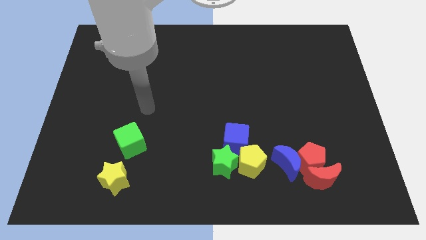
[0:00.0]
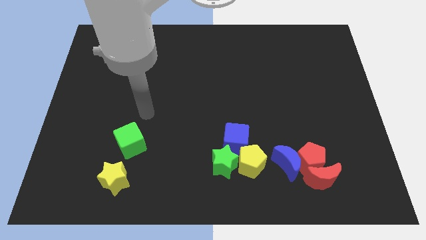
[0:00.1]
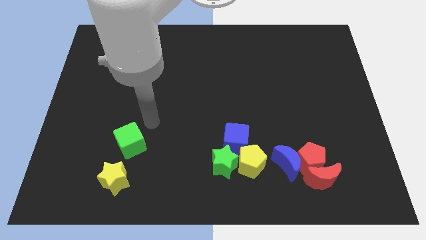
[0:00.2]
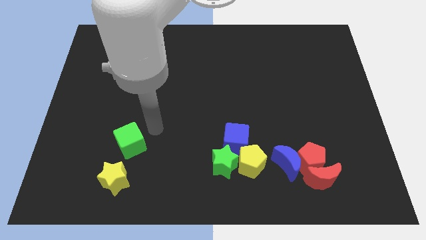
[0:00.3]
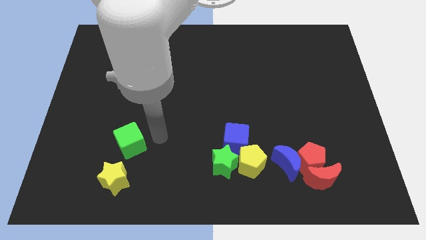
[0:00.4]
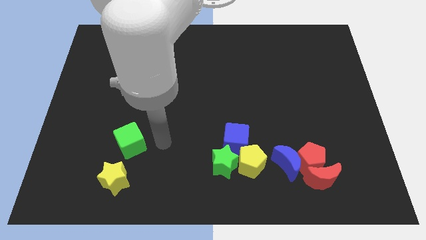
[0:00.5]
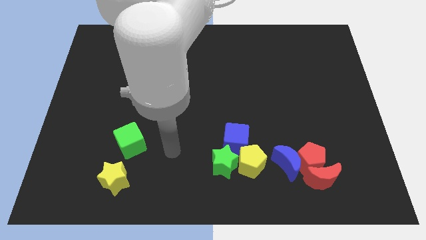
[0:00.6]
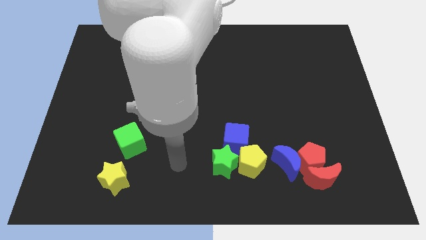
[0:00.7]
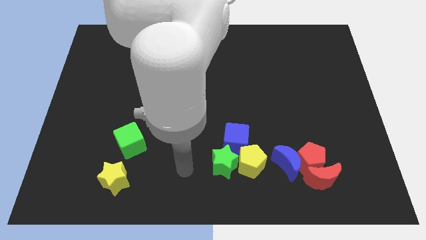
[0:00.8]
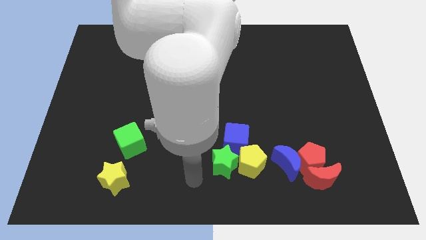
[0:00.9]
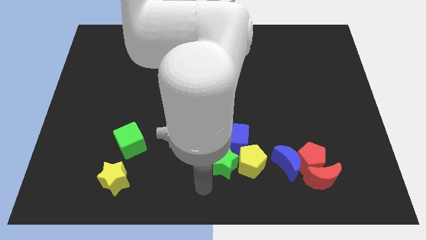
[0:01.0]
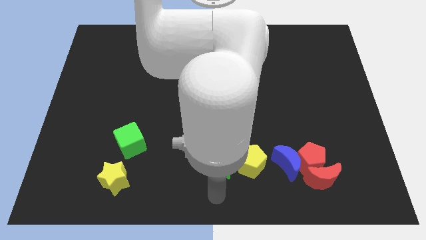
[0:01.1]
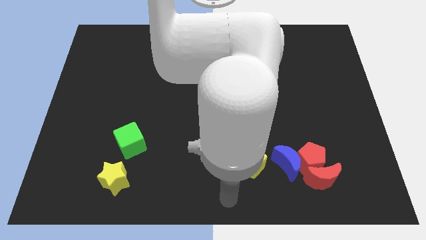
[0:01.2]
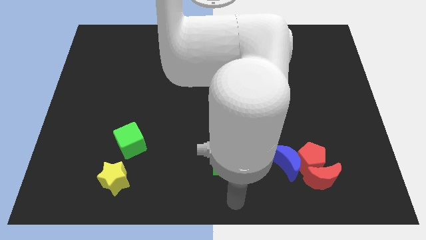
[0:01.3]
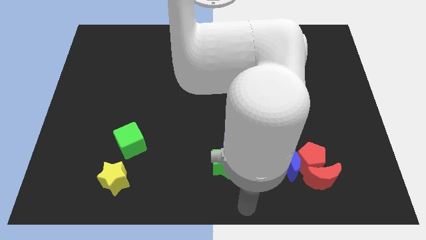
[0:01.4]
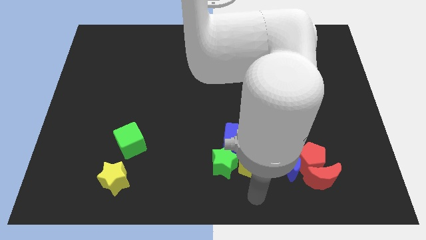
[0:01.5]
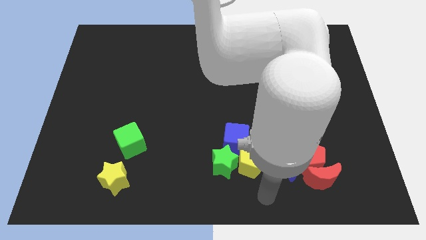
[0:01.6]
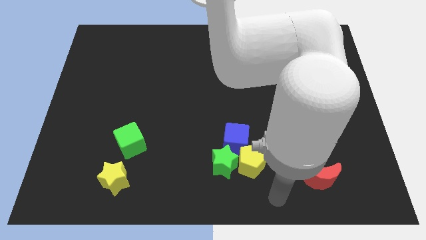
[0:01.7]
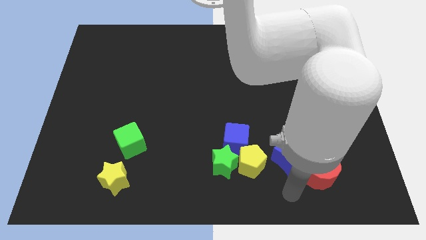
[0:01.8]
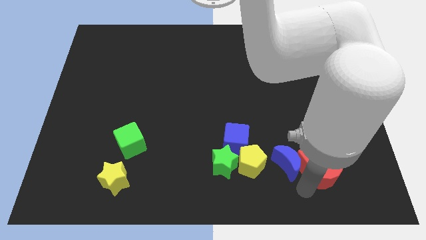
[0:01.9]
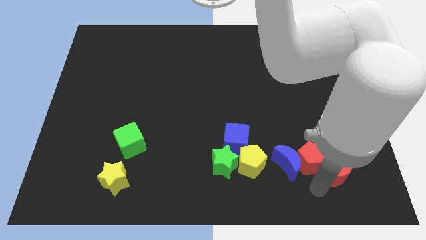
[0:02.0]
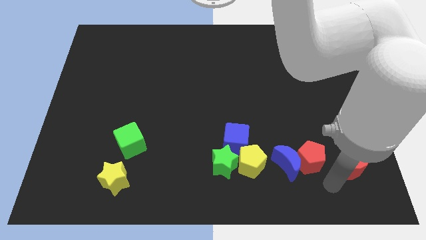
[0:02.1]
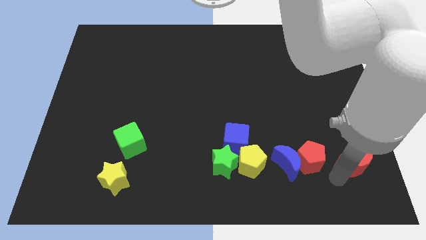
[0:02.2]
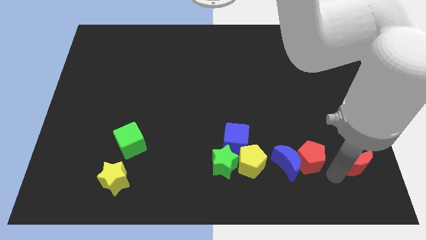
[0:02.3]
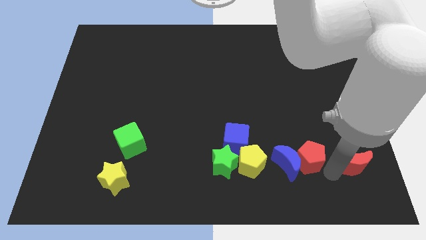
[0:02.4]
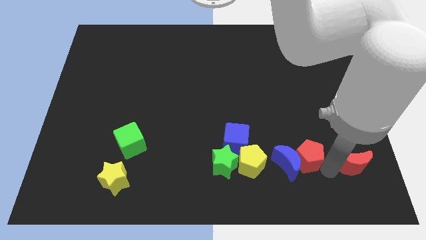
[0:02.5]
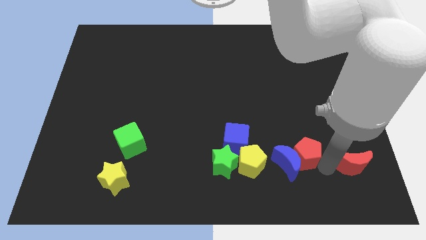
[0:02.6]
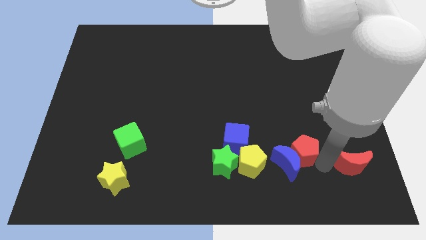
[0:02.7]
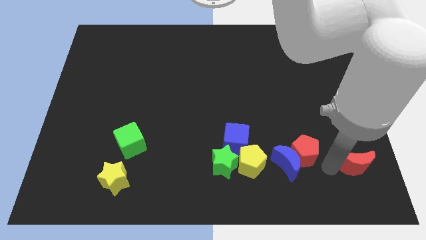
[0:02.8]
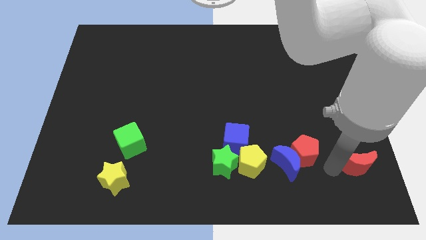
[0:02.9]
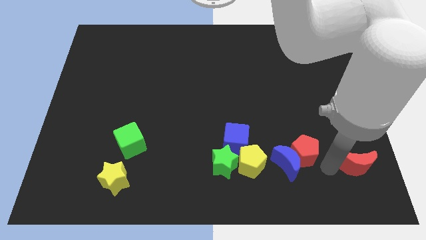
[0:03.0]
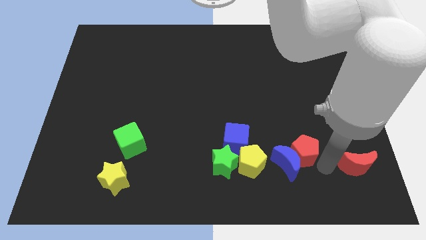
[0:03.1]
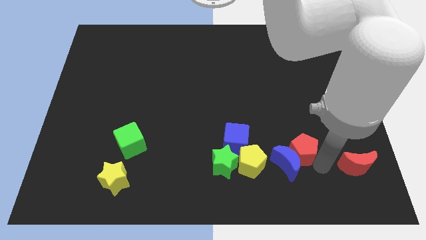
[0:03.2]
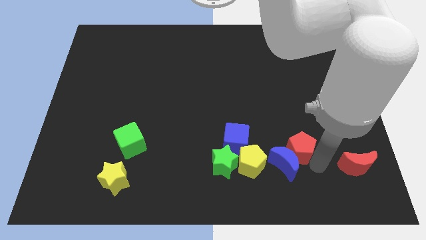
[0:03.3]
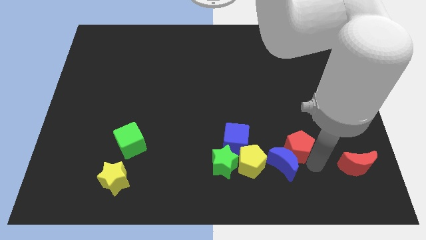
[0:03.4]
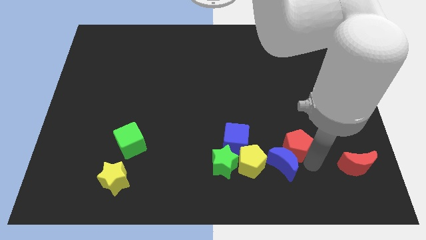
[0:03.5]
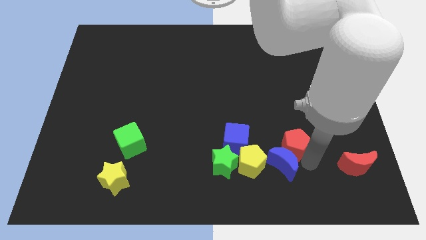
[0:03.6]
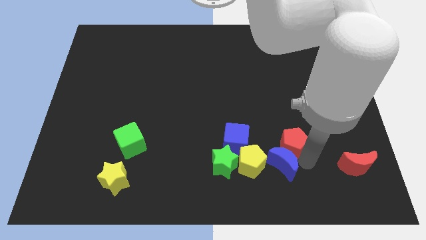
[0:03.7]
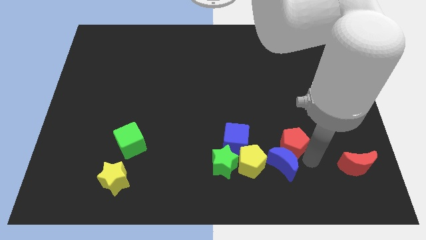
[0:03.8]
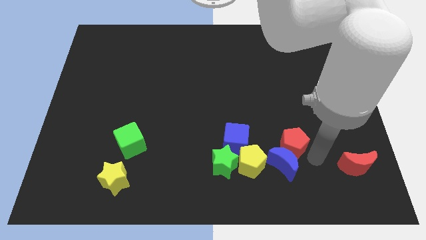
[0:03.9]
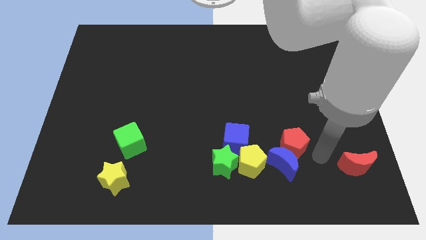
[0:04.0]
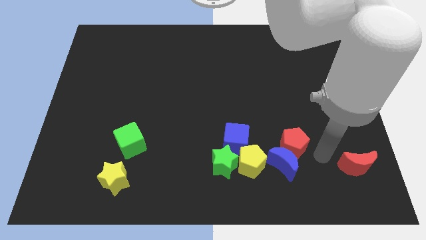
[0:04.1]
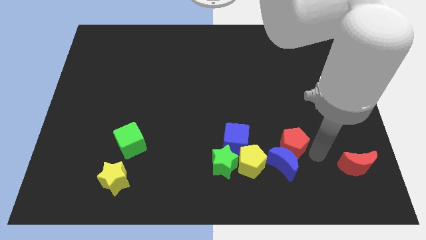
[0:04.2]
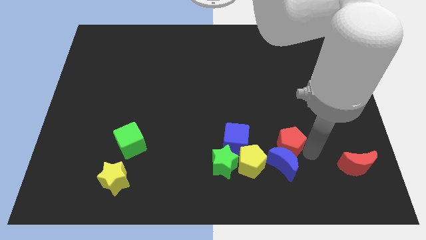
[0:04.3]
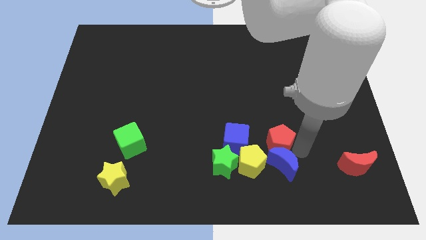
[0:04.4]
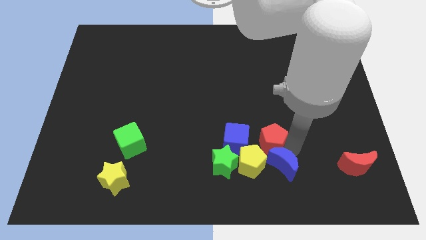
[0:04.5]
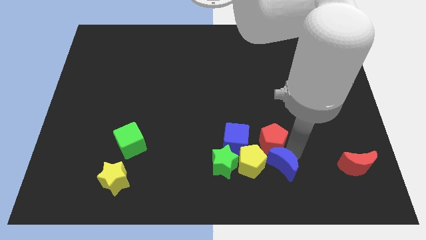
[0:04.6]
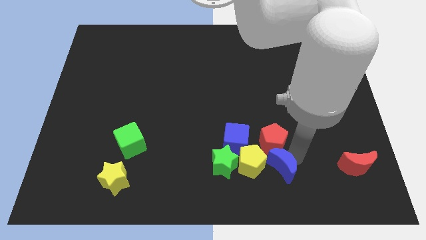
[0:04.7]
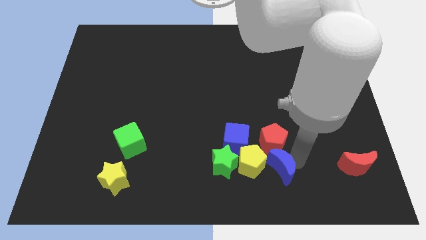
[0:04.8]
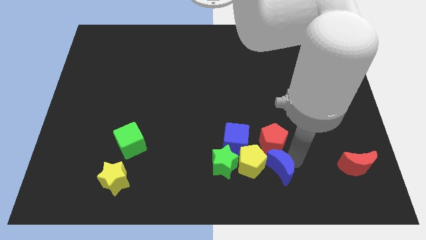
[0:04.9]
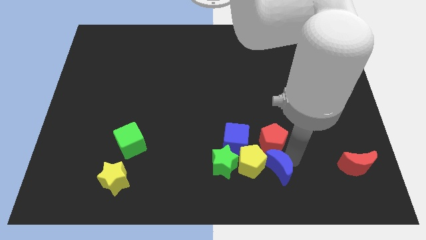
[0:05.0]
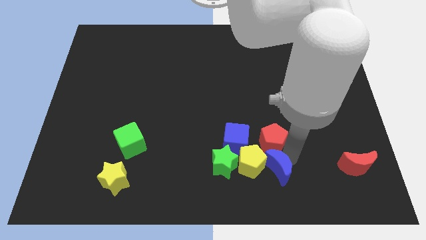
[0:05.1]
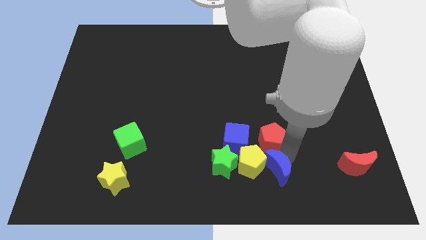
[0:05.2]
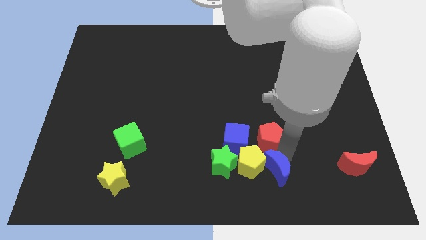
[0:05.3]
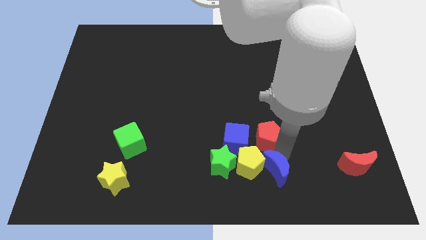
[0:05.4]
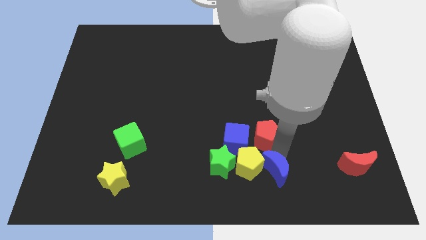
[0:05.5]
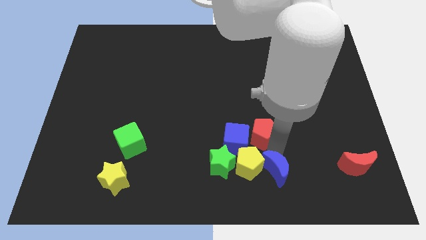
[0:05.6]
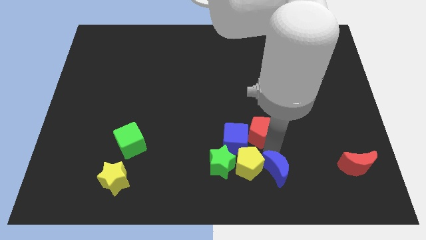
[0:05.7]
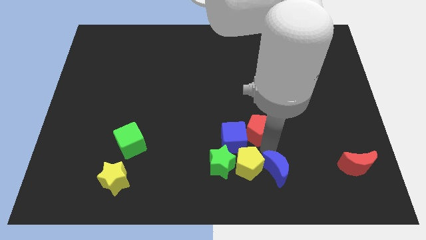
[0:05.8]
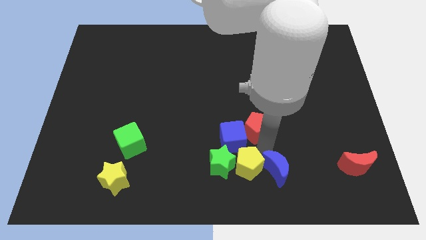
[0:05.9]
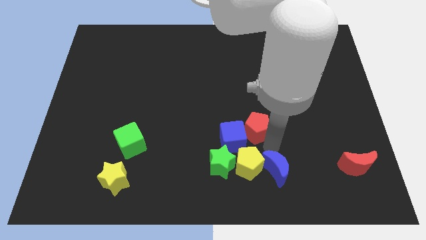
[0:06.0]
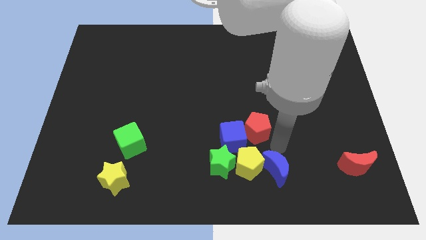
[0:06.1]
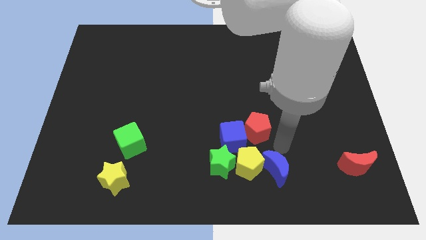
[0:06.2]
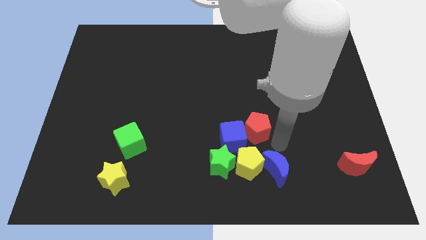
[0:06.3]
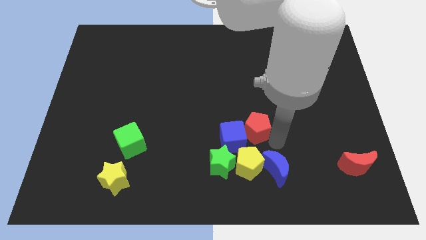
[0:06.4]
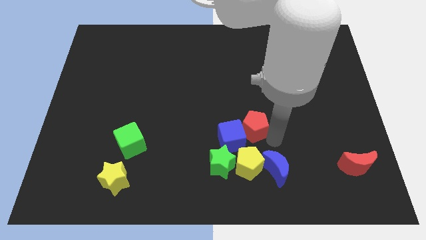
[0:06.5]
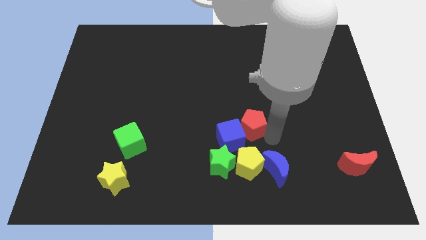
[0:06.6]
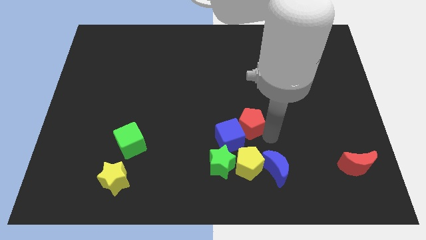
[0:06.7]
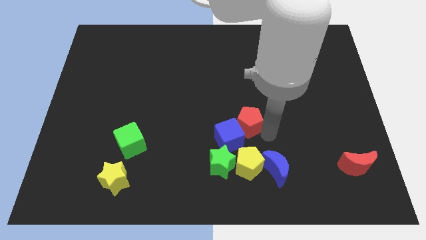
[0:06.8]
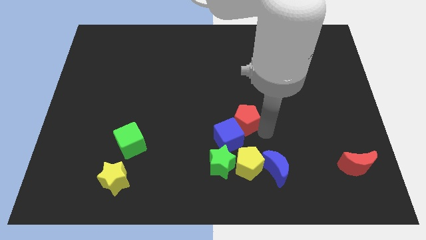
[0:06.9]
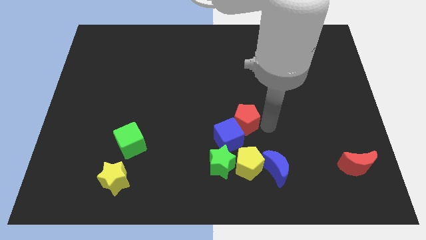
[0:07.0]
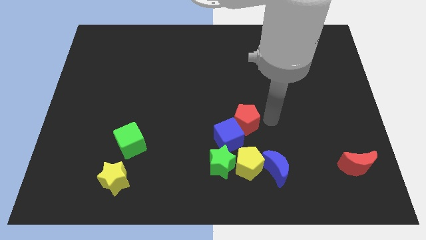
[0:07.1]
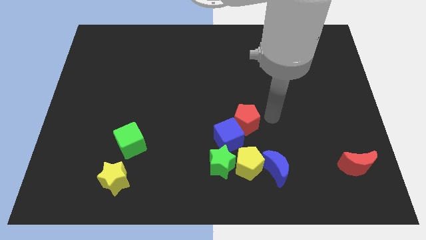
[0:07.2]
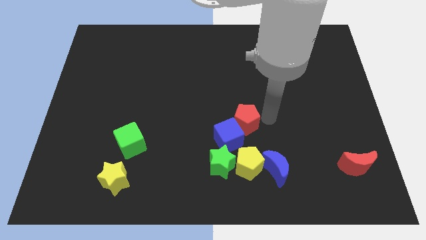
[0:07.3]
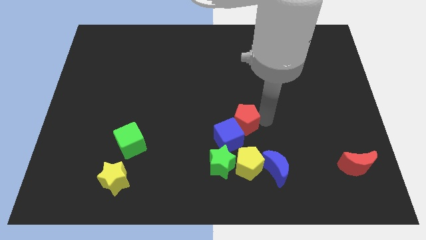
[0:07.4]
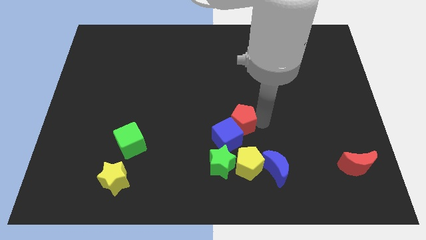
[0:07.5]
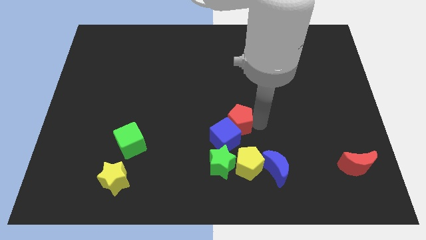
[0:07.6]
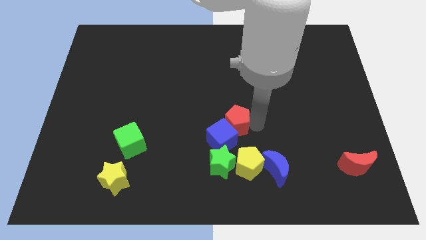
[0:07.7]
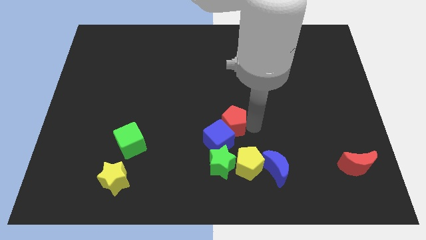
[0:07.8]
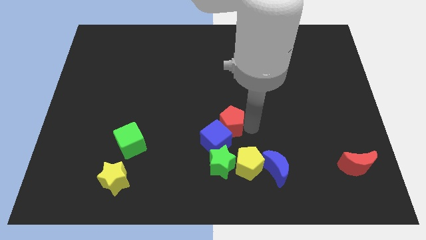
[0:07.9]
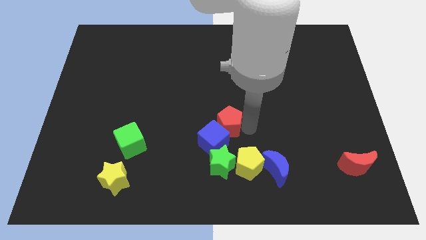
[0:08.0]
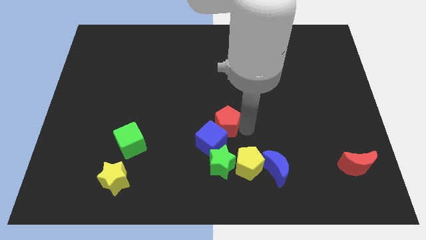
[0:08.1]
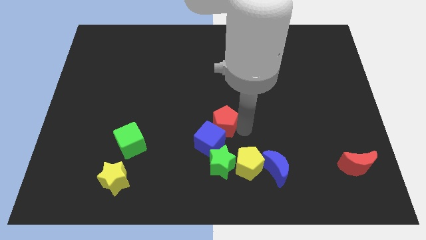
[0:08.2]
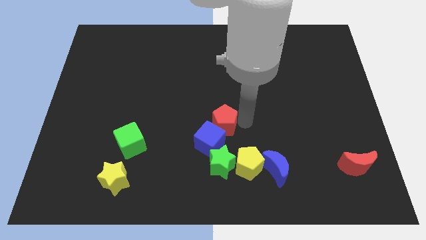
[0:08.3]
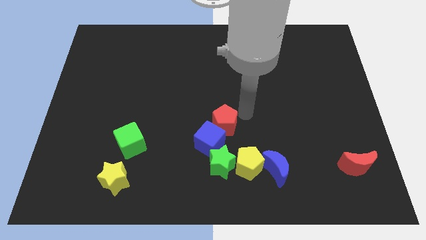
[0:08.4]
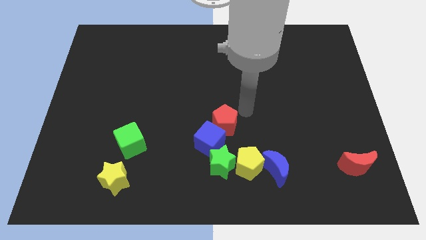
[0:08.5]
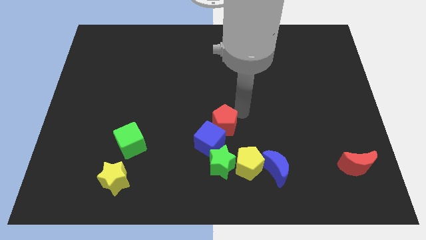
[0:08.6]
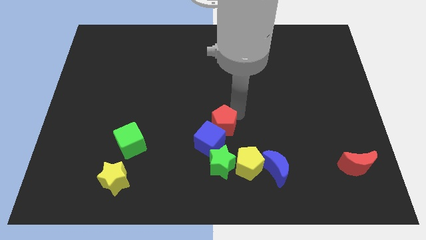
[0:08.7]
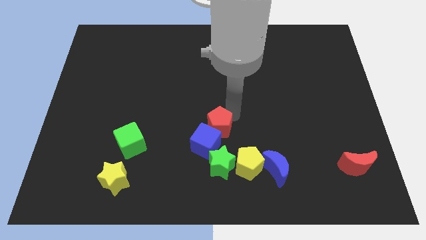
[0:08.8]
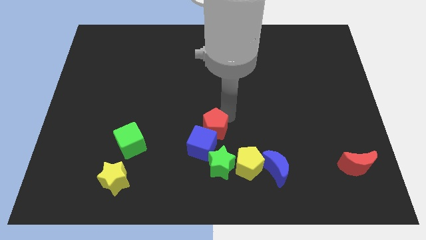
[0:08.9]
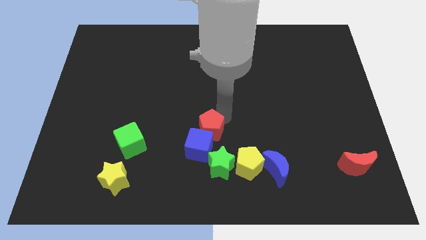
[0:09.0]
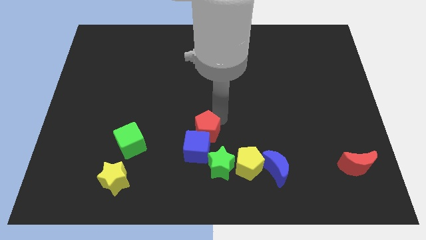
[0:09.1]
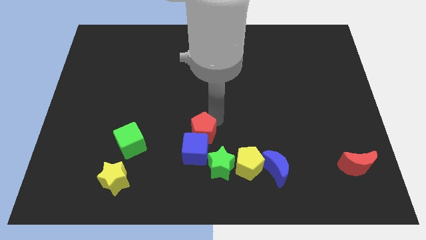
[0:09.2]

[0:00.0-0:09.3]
push the red pentagon left
